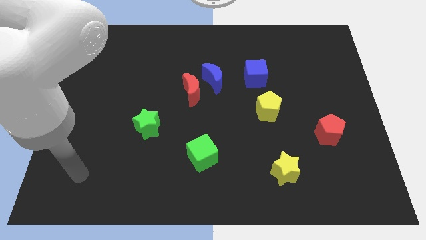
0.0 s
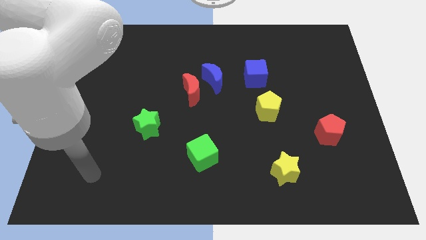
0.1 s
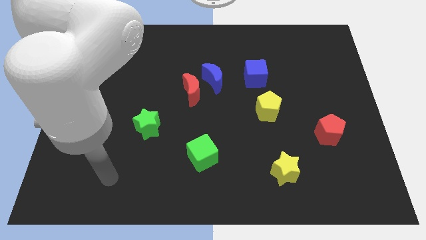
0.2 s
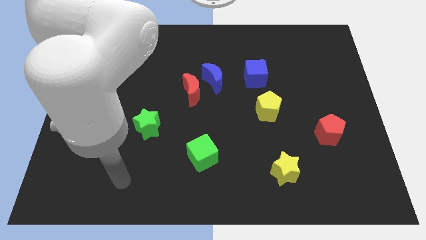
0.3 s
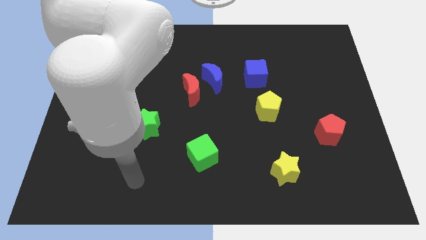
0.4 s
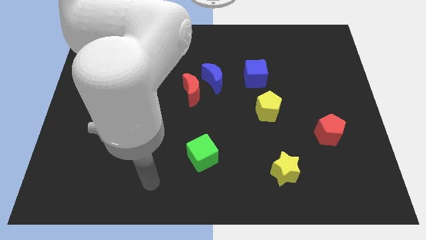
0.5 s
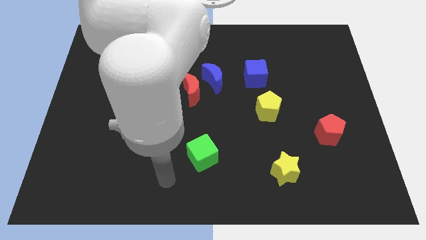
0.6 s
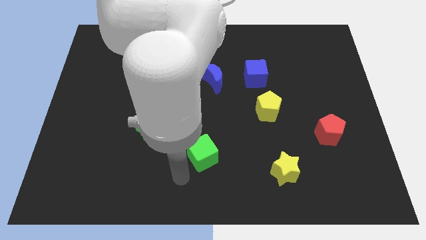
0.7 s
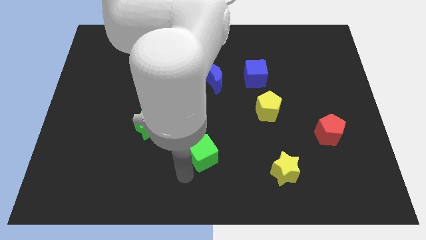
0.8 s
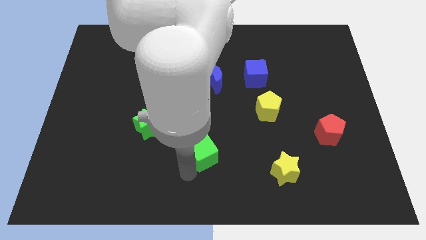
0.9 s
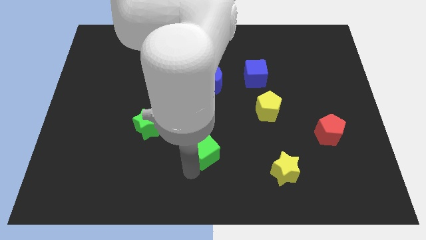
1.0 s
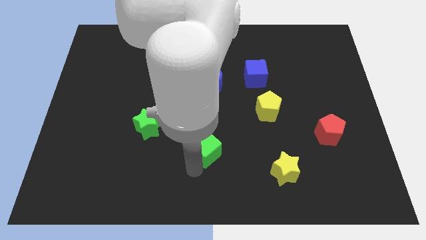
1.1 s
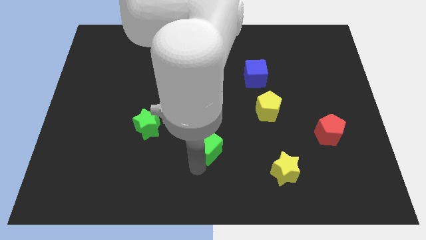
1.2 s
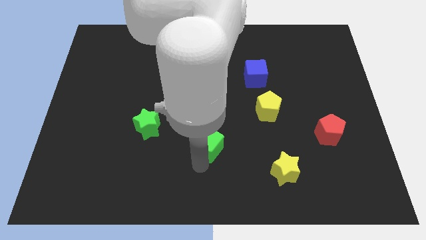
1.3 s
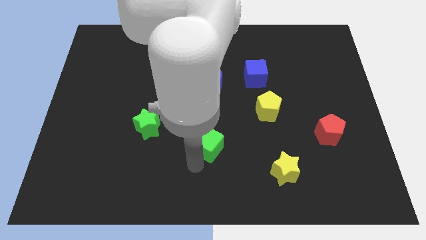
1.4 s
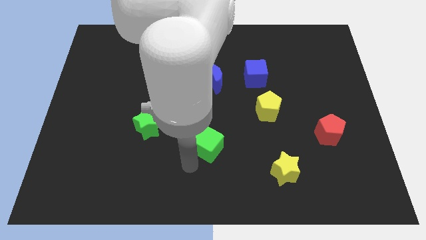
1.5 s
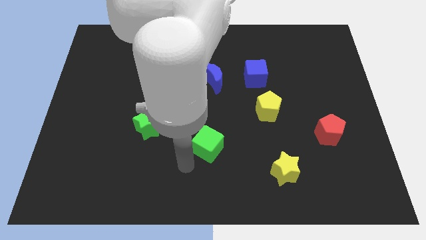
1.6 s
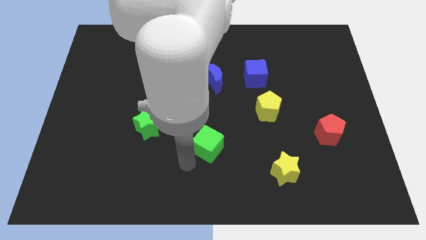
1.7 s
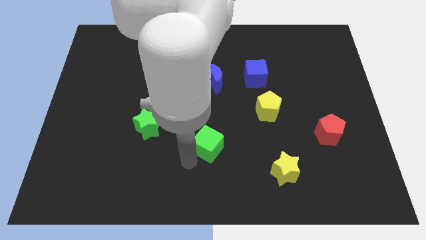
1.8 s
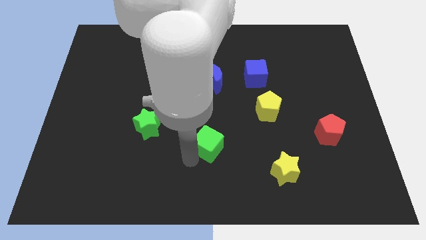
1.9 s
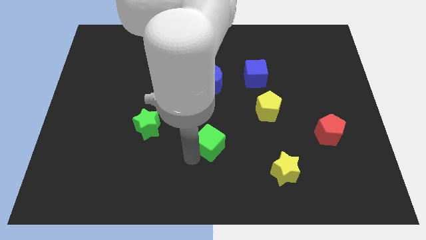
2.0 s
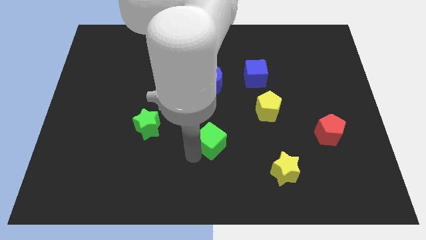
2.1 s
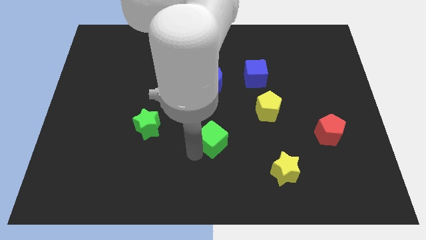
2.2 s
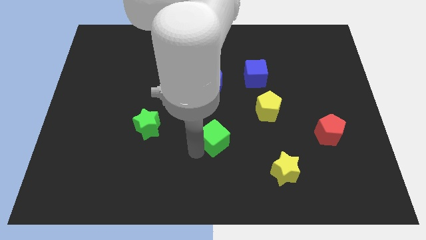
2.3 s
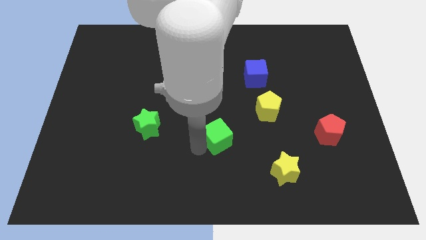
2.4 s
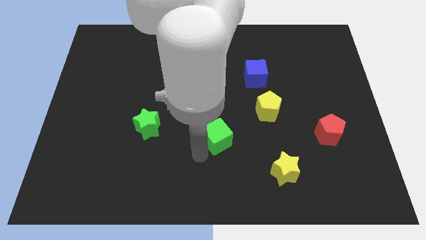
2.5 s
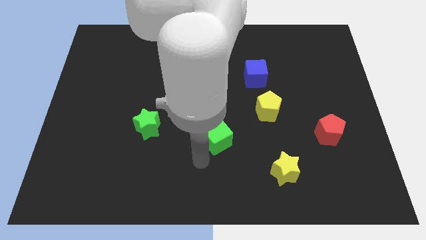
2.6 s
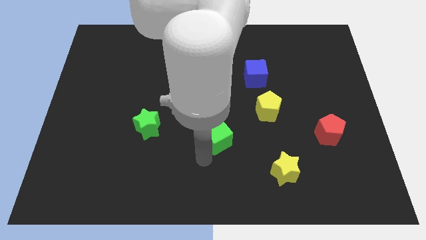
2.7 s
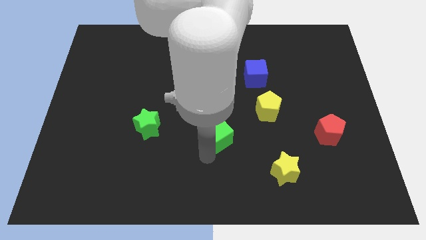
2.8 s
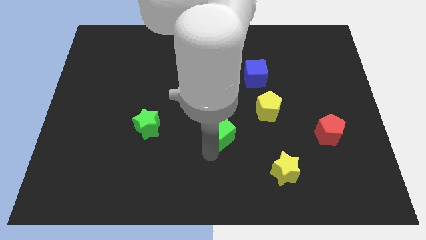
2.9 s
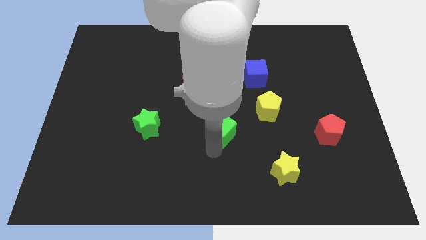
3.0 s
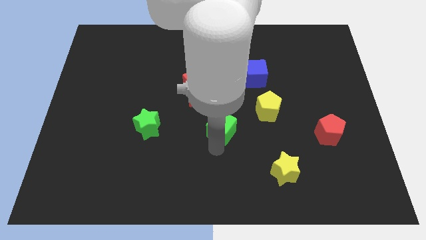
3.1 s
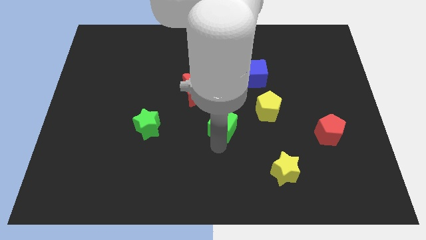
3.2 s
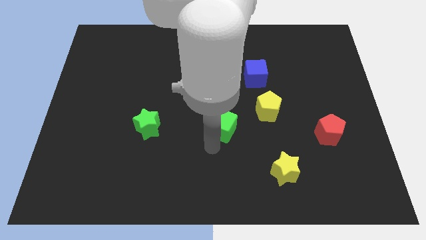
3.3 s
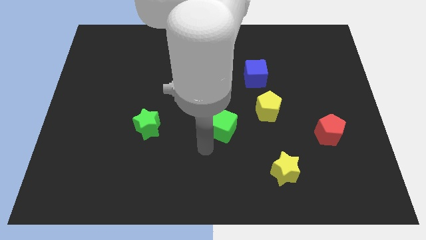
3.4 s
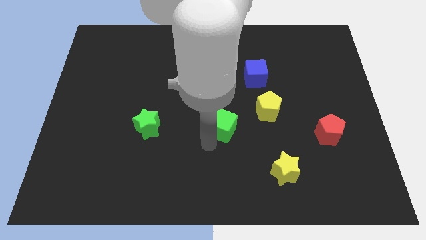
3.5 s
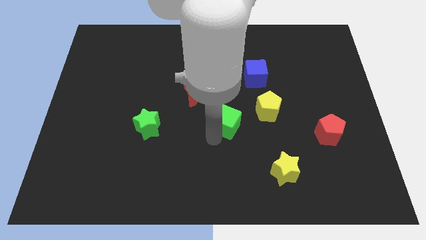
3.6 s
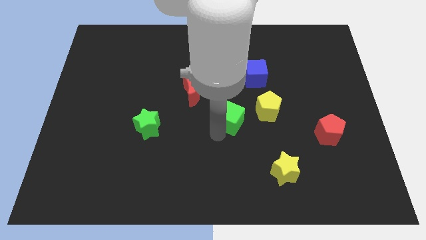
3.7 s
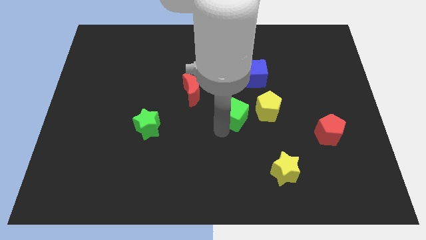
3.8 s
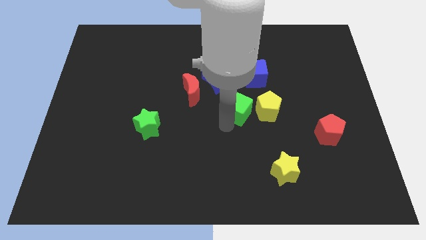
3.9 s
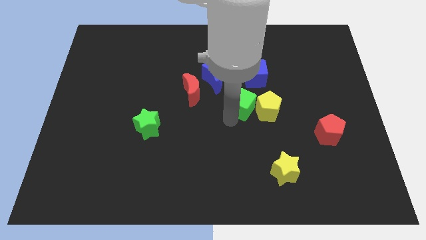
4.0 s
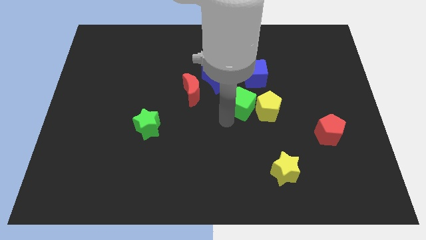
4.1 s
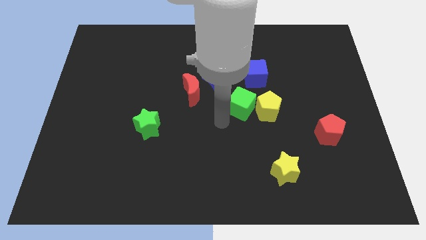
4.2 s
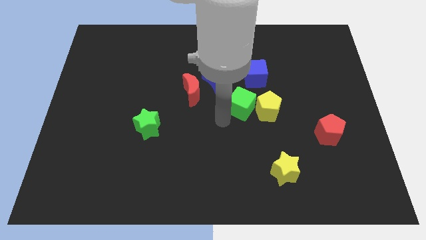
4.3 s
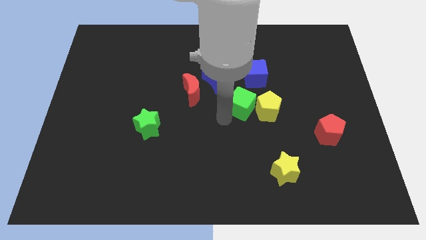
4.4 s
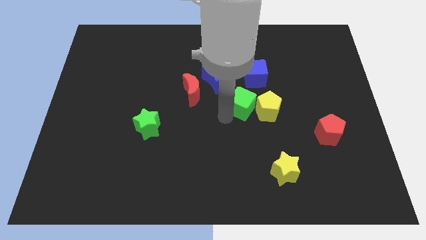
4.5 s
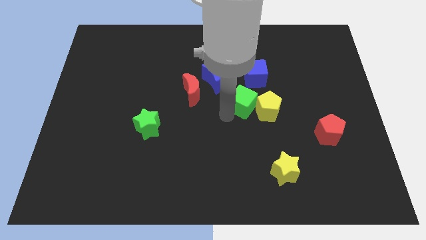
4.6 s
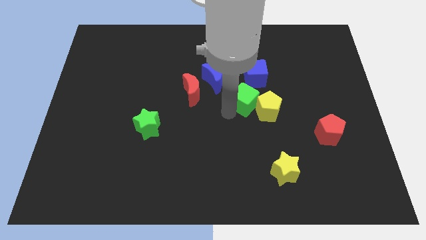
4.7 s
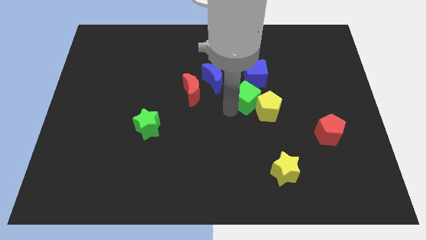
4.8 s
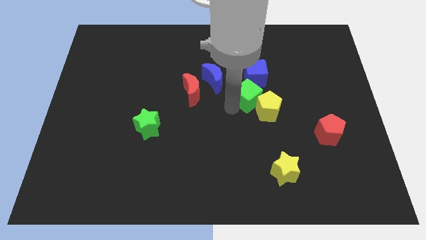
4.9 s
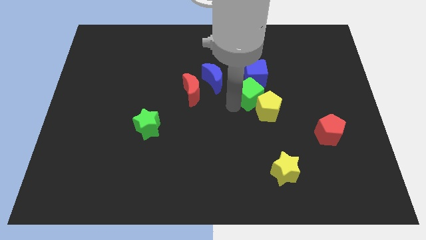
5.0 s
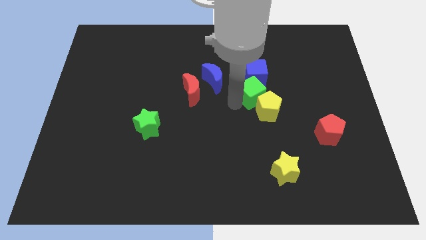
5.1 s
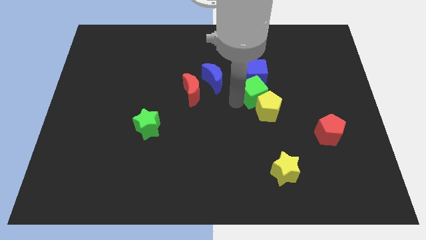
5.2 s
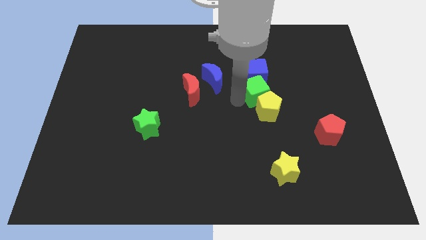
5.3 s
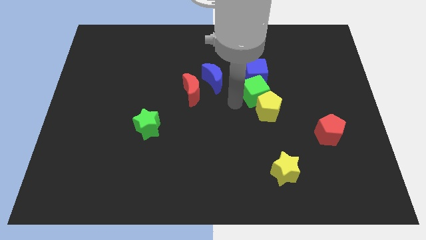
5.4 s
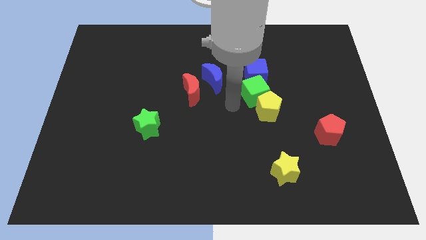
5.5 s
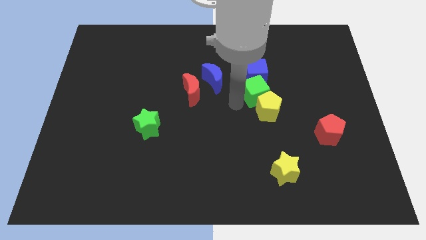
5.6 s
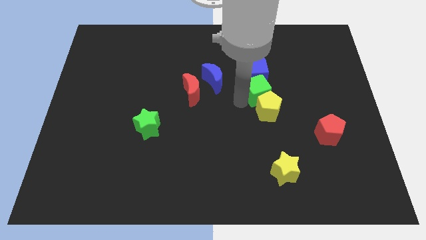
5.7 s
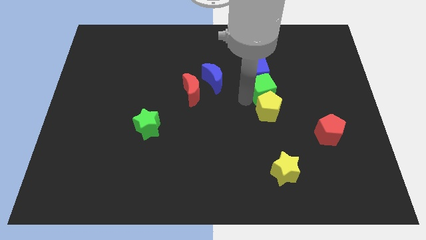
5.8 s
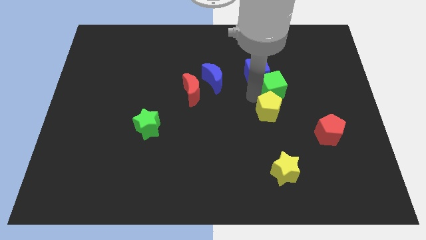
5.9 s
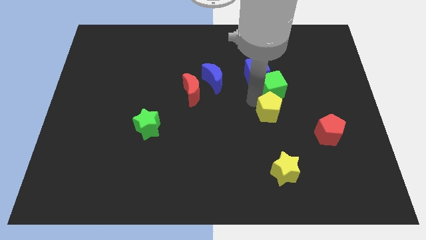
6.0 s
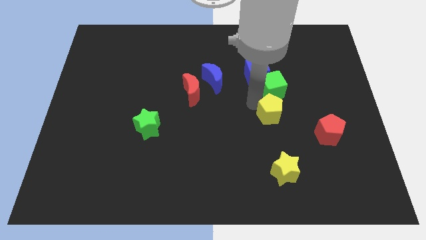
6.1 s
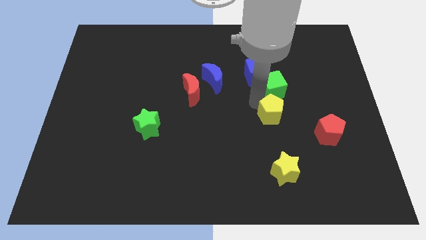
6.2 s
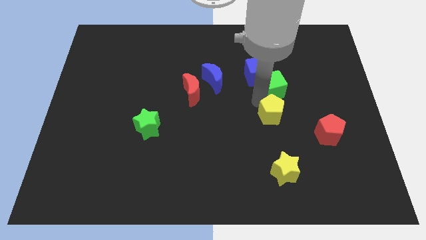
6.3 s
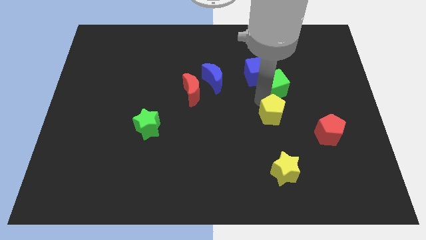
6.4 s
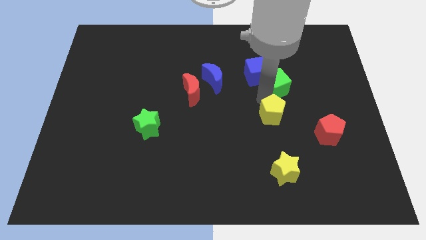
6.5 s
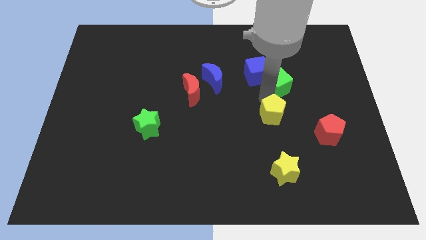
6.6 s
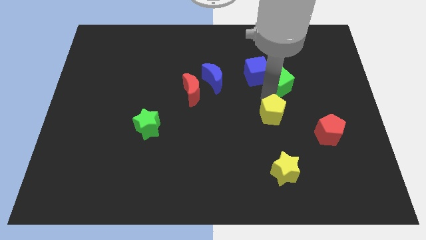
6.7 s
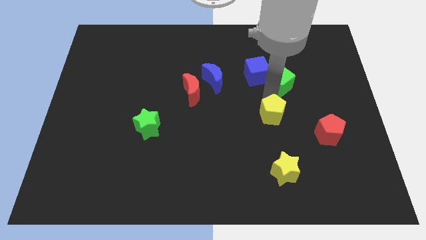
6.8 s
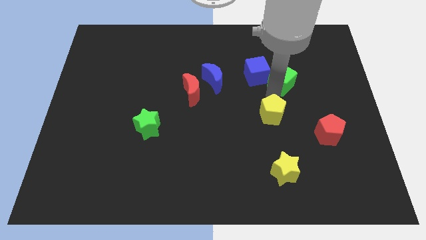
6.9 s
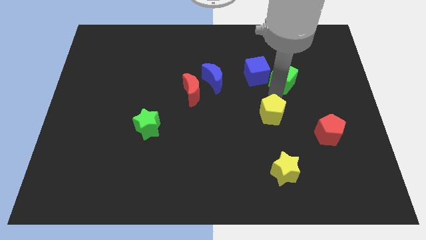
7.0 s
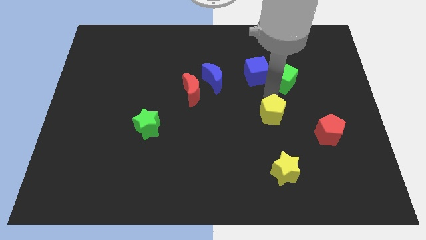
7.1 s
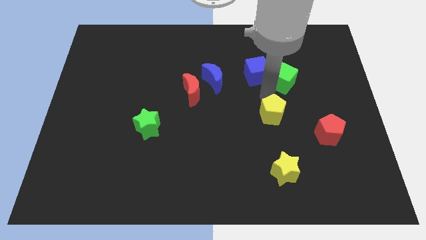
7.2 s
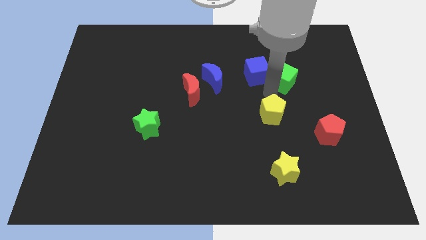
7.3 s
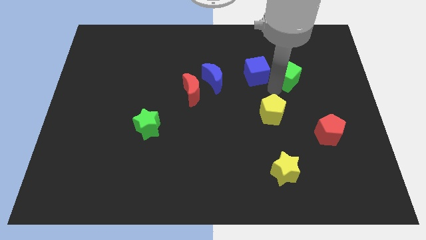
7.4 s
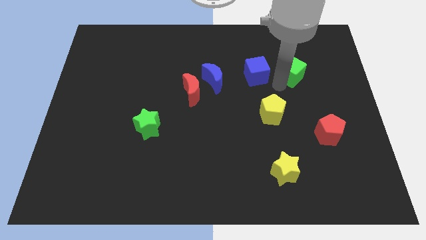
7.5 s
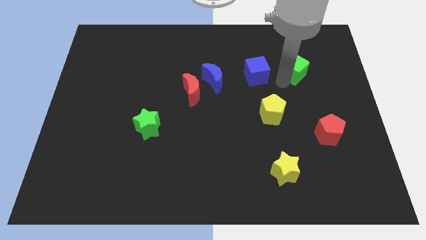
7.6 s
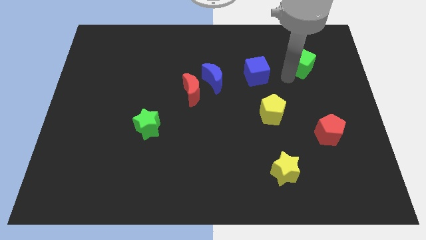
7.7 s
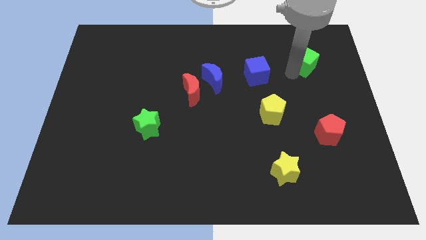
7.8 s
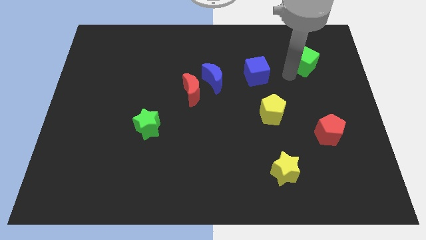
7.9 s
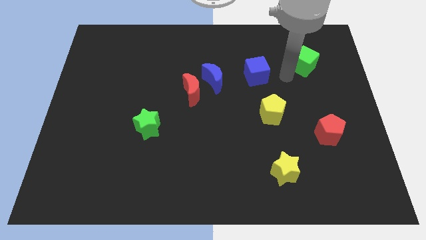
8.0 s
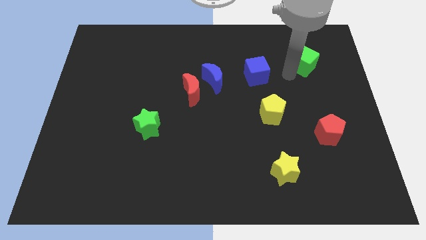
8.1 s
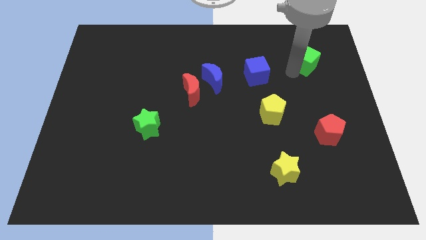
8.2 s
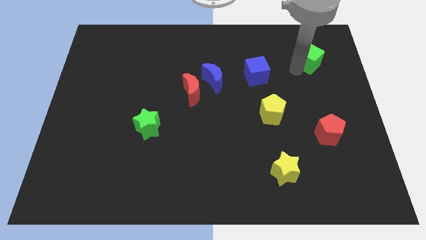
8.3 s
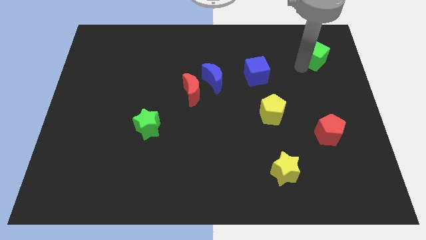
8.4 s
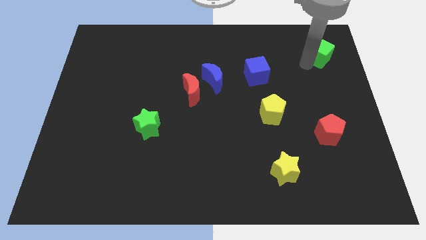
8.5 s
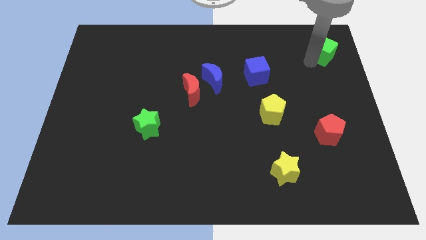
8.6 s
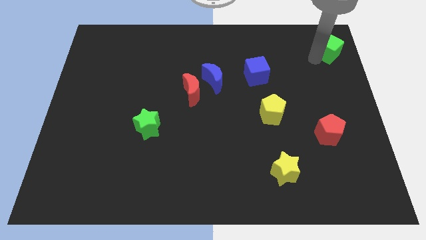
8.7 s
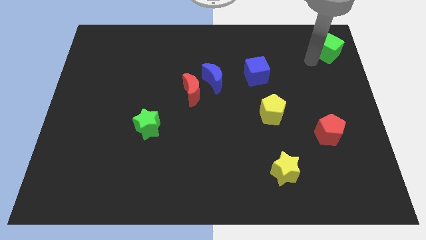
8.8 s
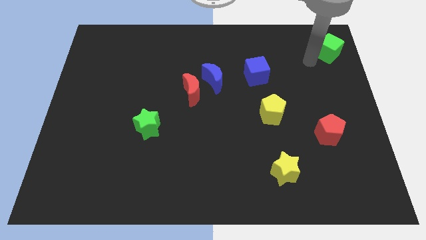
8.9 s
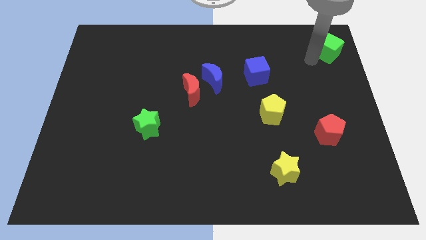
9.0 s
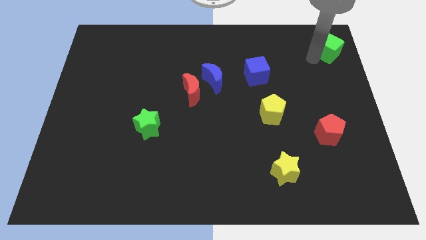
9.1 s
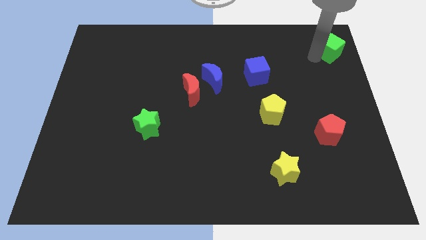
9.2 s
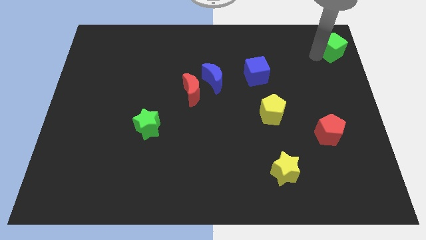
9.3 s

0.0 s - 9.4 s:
slide the green cube to the top right
